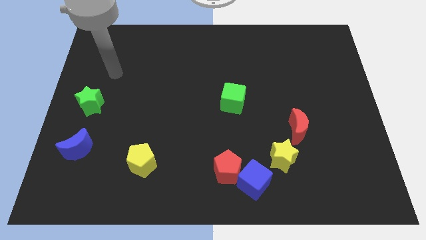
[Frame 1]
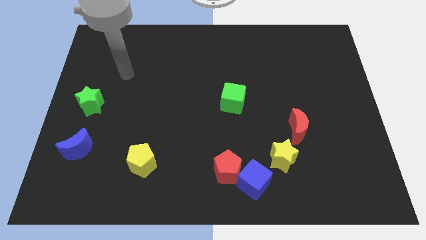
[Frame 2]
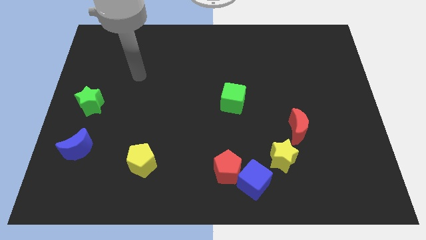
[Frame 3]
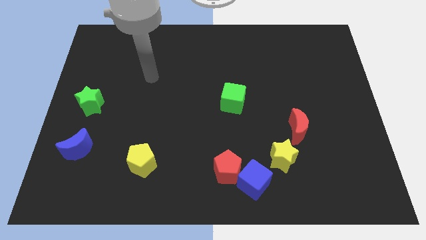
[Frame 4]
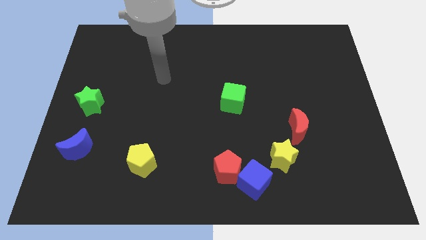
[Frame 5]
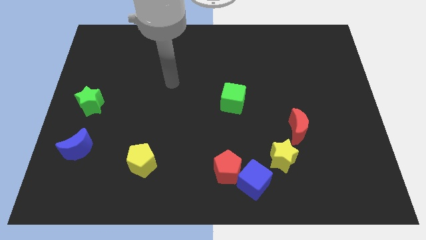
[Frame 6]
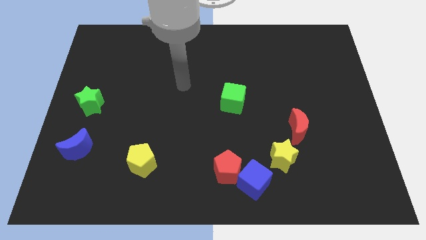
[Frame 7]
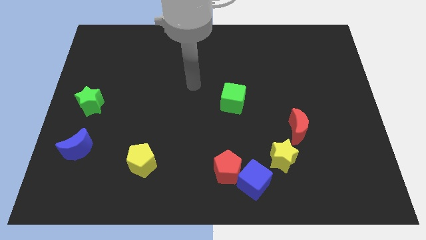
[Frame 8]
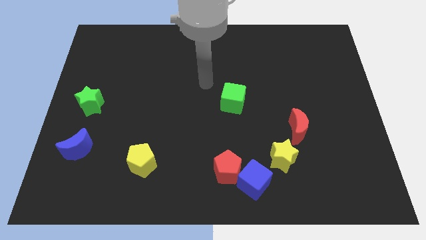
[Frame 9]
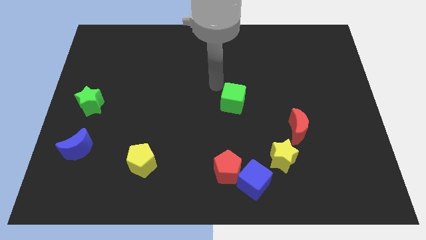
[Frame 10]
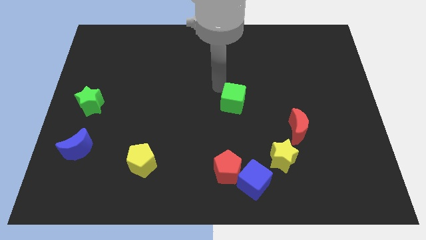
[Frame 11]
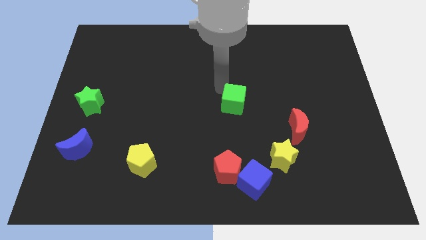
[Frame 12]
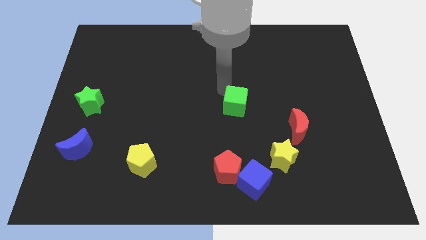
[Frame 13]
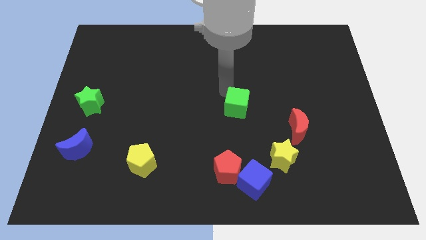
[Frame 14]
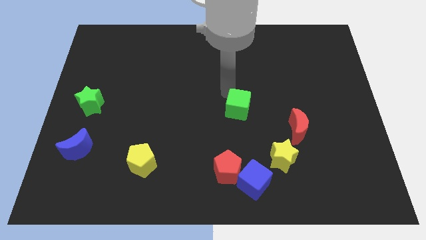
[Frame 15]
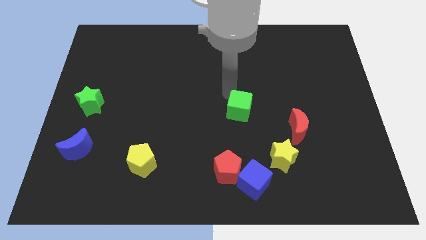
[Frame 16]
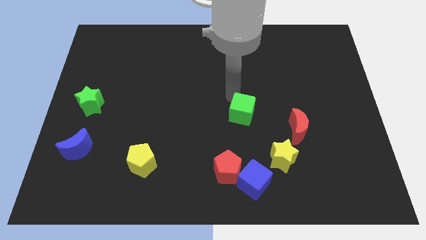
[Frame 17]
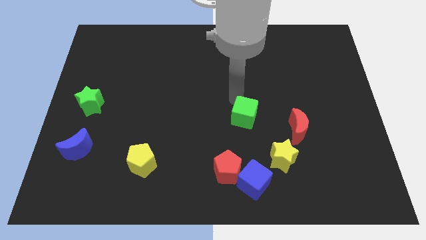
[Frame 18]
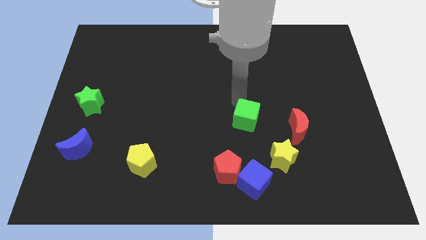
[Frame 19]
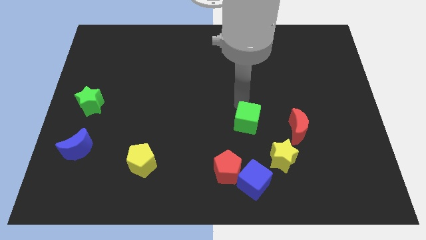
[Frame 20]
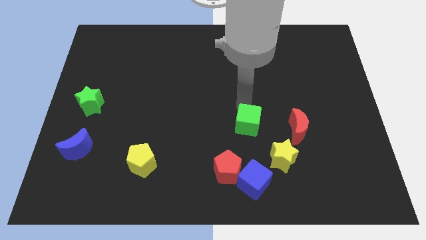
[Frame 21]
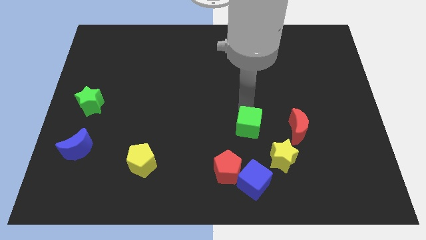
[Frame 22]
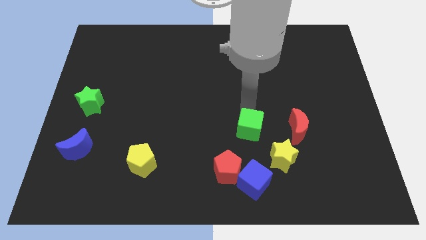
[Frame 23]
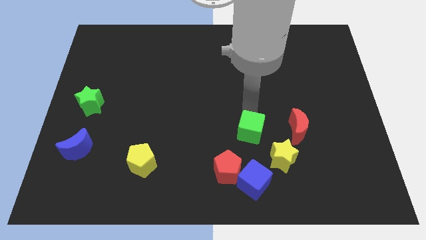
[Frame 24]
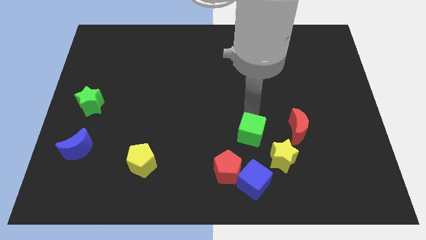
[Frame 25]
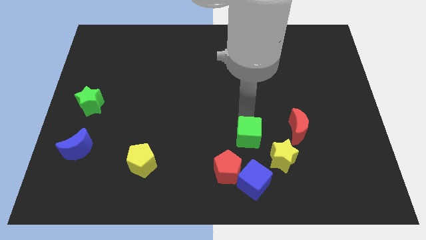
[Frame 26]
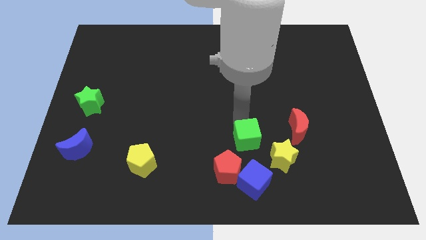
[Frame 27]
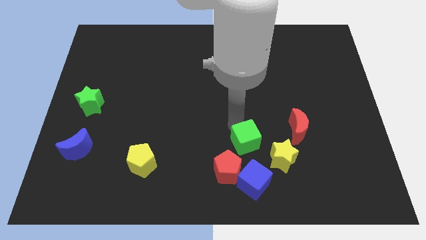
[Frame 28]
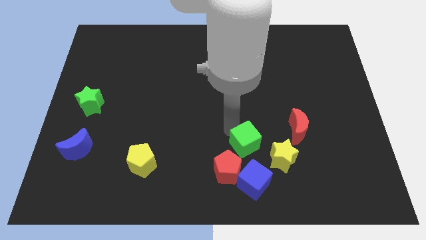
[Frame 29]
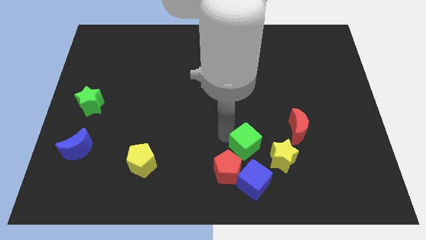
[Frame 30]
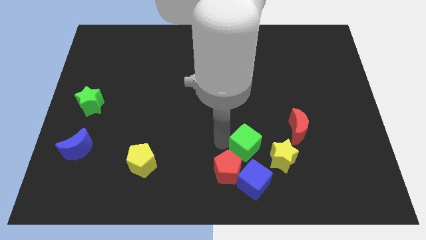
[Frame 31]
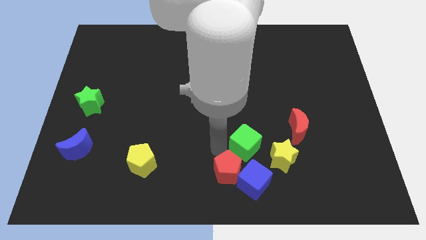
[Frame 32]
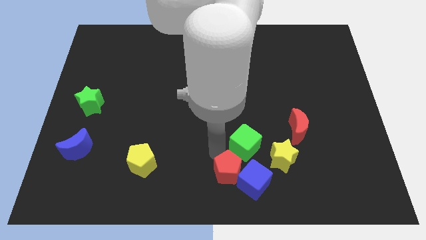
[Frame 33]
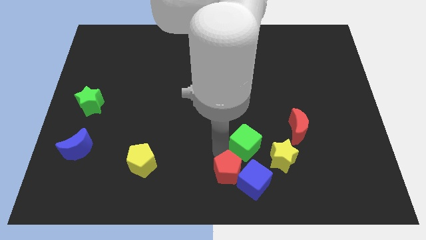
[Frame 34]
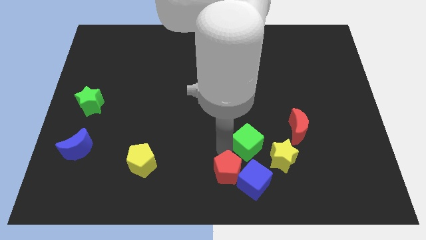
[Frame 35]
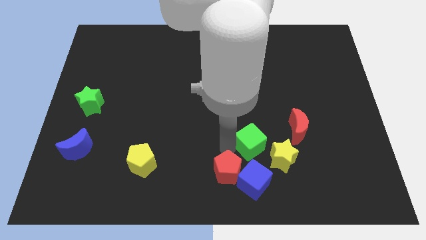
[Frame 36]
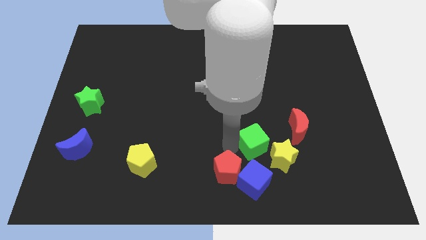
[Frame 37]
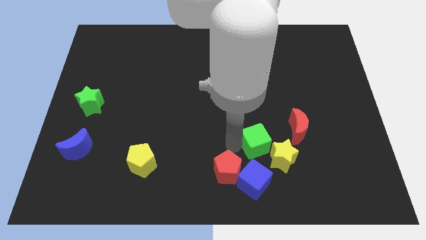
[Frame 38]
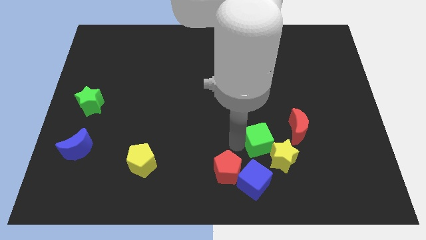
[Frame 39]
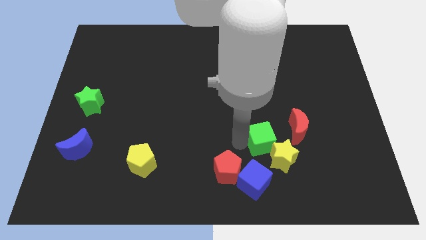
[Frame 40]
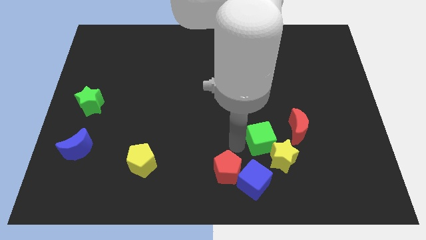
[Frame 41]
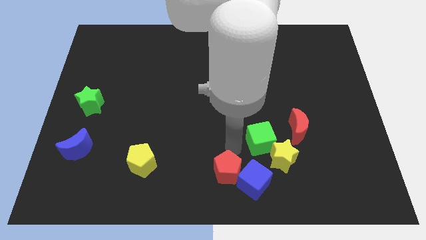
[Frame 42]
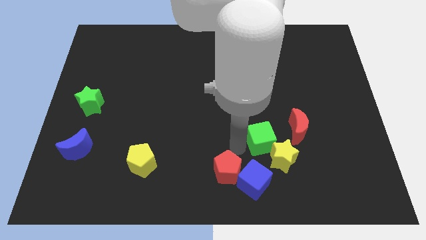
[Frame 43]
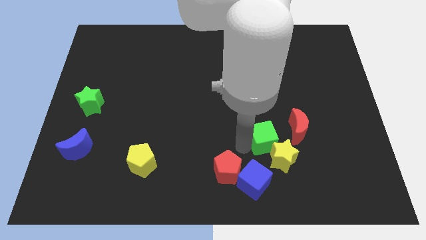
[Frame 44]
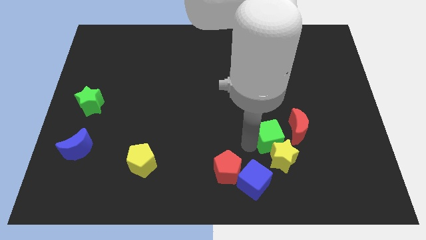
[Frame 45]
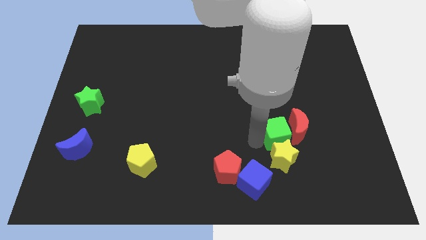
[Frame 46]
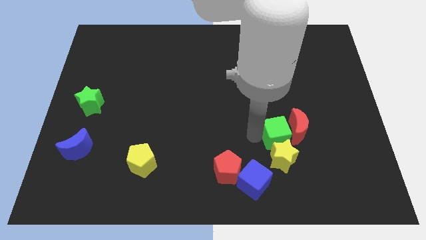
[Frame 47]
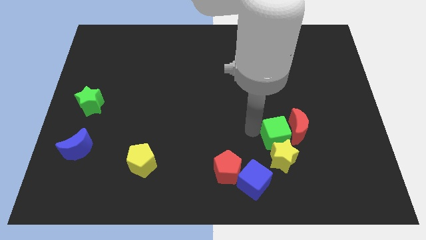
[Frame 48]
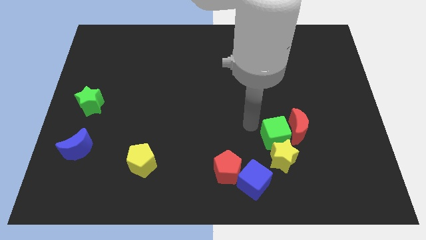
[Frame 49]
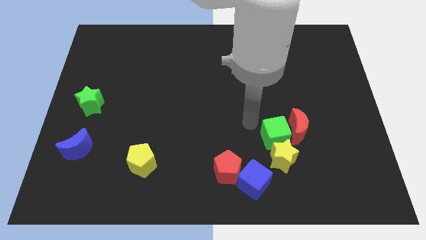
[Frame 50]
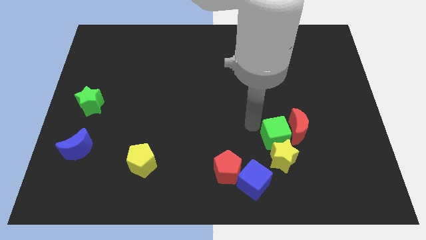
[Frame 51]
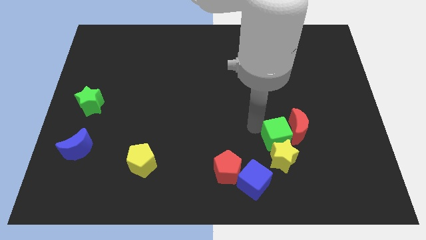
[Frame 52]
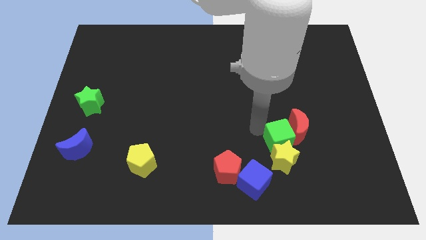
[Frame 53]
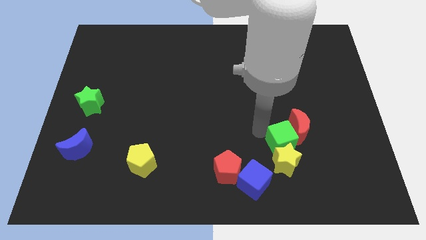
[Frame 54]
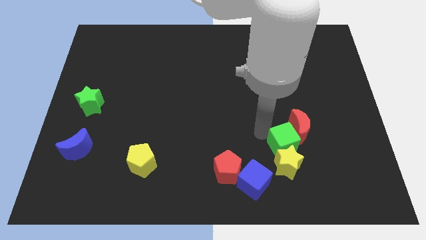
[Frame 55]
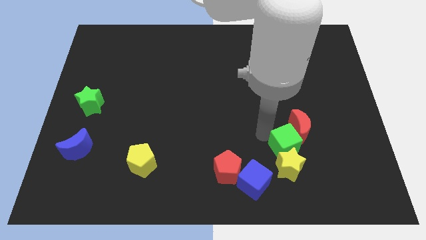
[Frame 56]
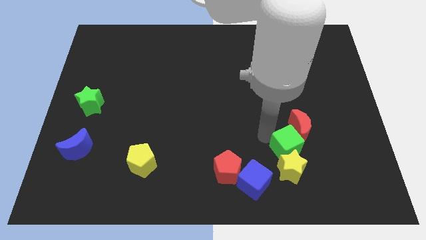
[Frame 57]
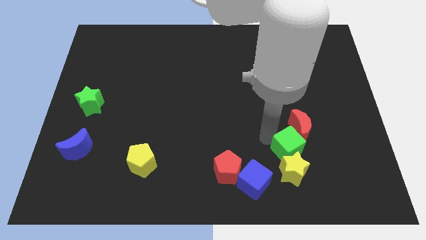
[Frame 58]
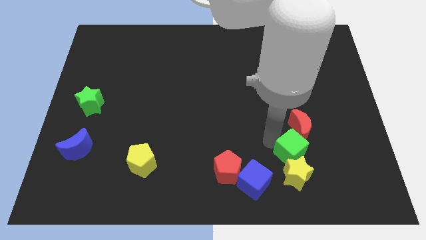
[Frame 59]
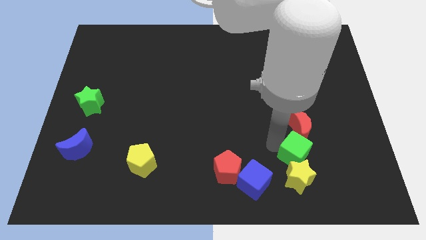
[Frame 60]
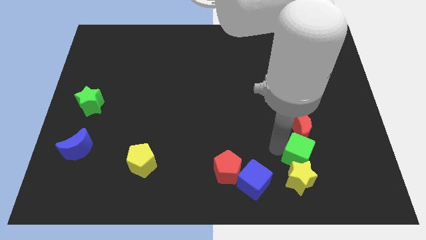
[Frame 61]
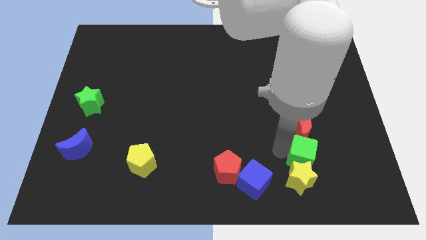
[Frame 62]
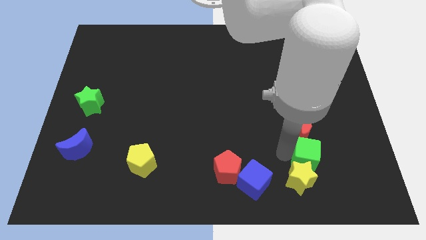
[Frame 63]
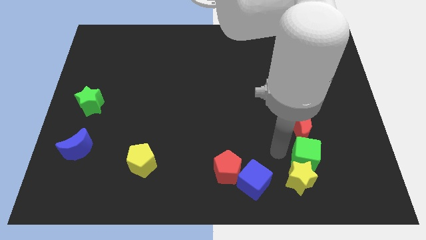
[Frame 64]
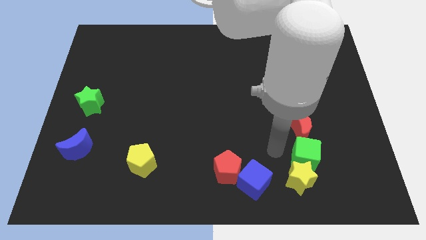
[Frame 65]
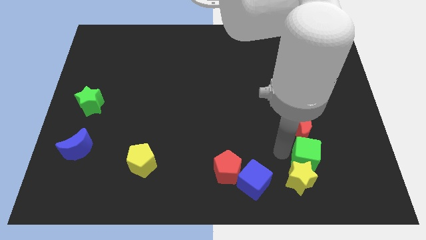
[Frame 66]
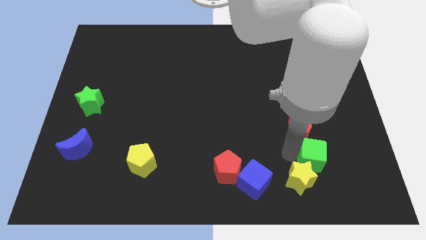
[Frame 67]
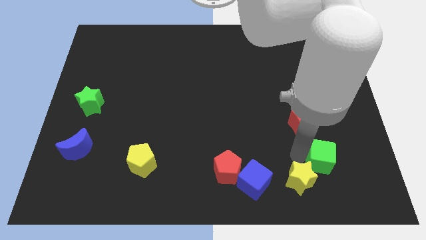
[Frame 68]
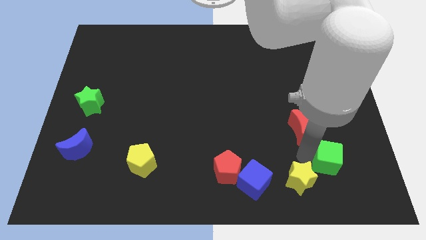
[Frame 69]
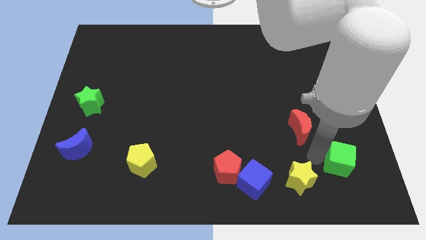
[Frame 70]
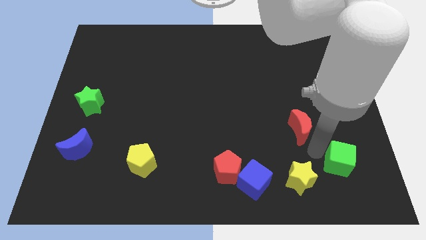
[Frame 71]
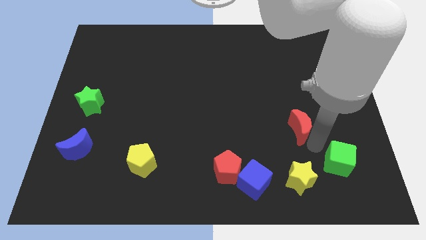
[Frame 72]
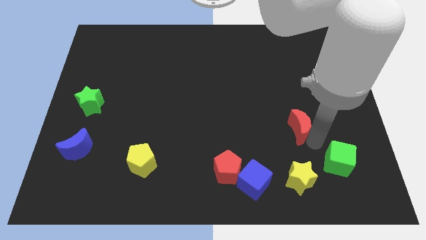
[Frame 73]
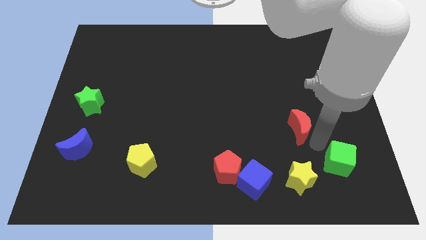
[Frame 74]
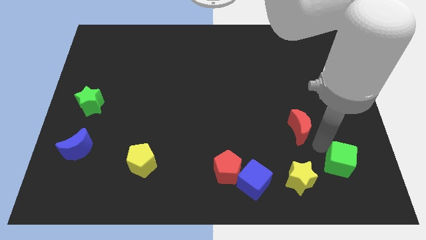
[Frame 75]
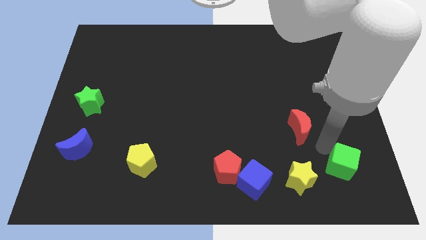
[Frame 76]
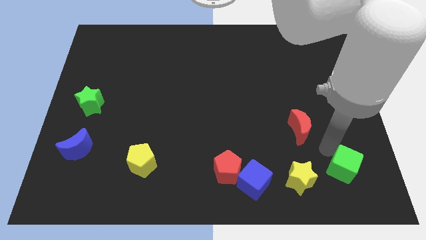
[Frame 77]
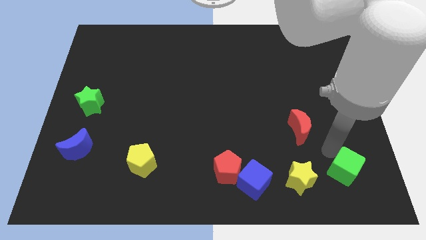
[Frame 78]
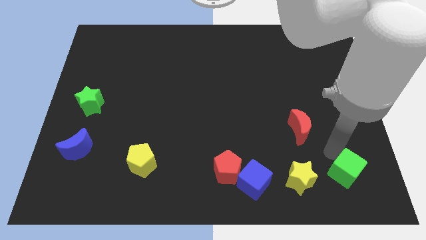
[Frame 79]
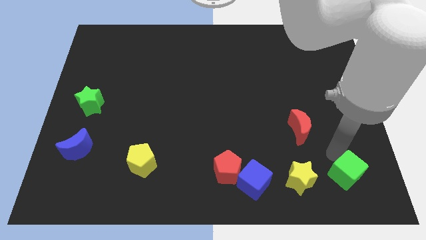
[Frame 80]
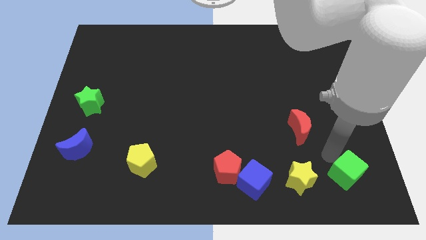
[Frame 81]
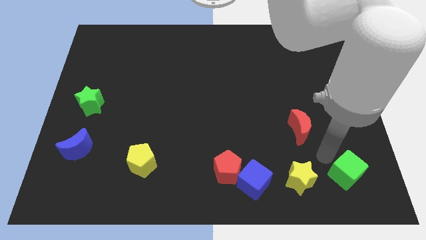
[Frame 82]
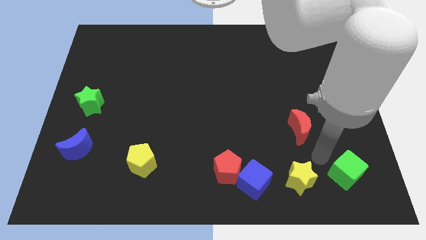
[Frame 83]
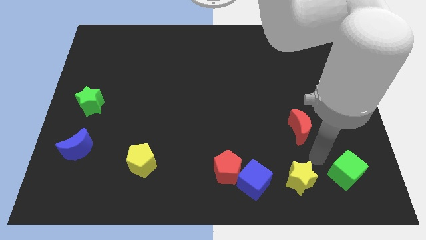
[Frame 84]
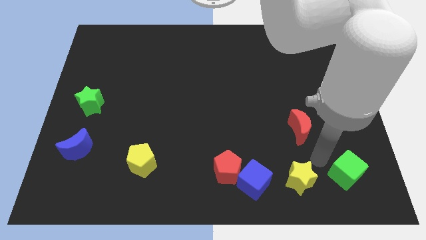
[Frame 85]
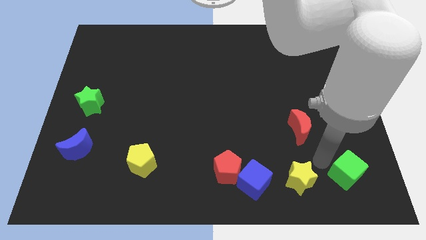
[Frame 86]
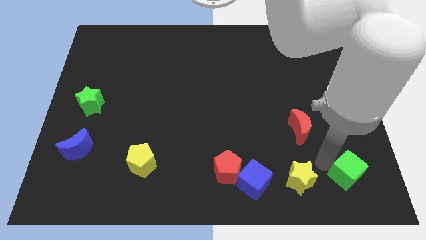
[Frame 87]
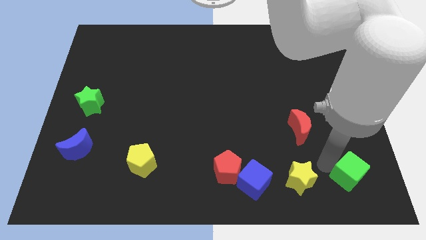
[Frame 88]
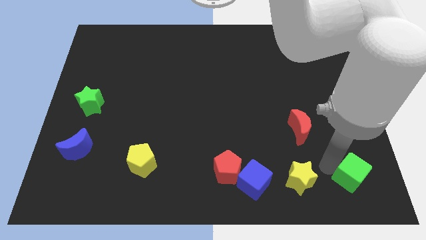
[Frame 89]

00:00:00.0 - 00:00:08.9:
put the green cube to the bottom right of the board
